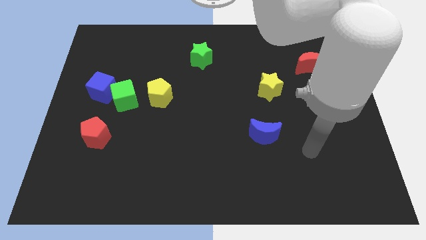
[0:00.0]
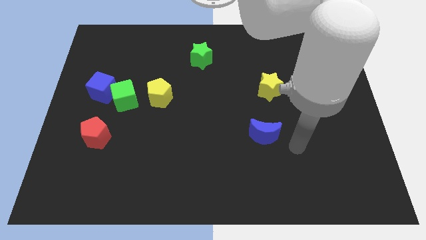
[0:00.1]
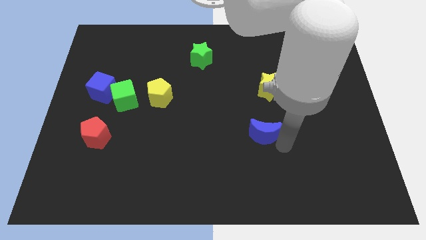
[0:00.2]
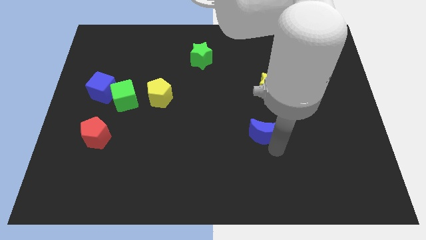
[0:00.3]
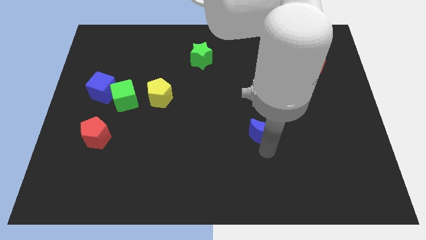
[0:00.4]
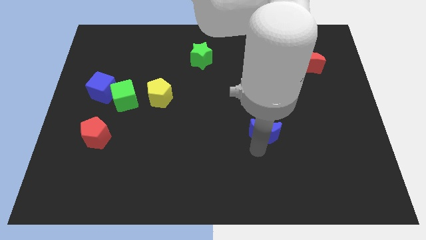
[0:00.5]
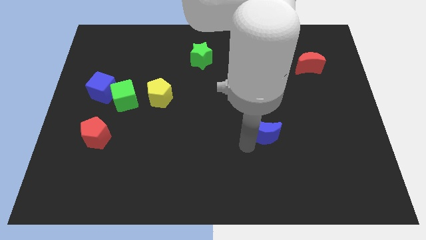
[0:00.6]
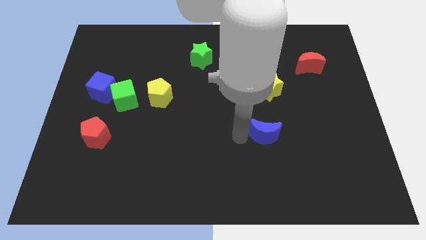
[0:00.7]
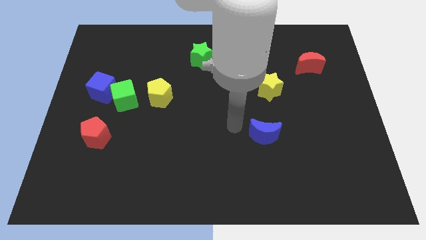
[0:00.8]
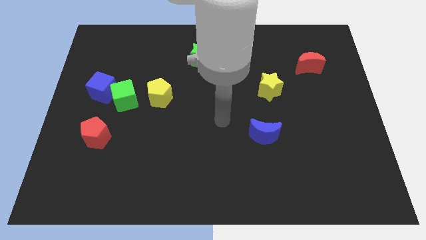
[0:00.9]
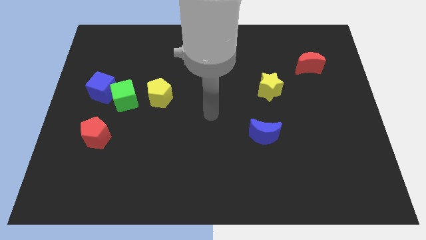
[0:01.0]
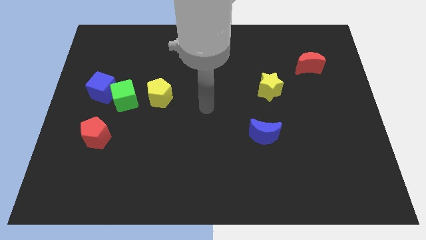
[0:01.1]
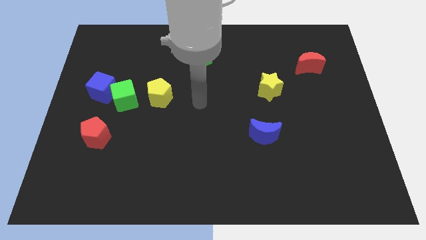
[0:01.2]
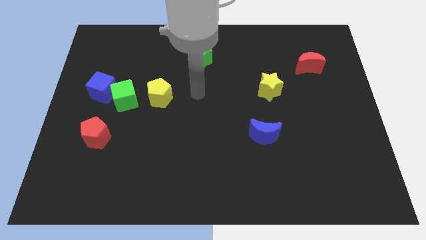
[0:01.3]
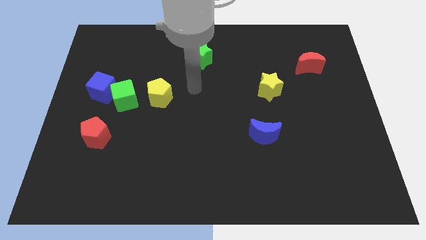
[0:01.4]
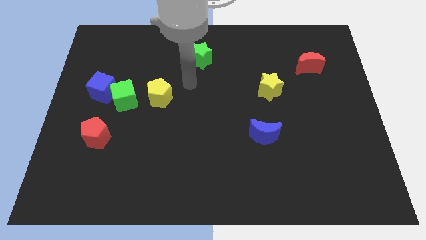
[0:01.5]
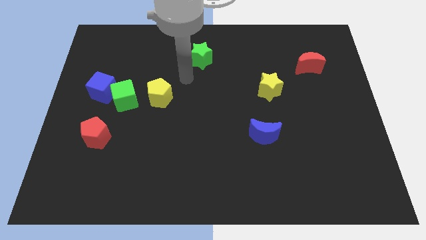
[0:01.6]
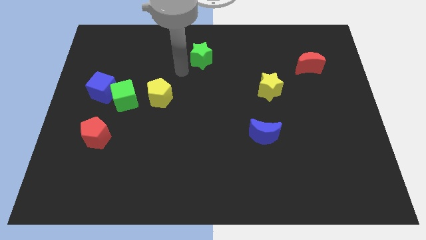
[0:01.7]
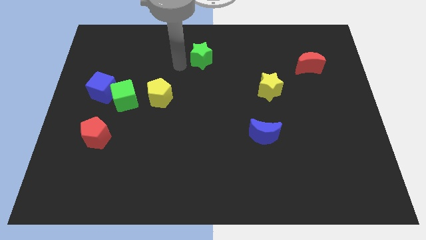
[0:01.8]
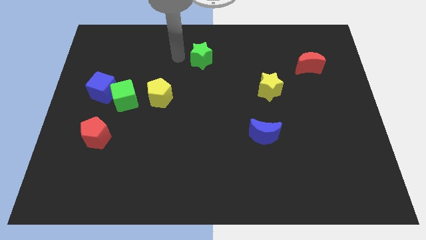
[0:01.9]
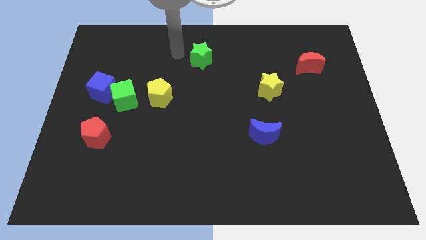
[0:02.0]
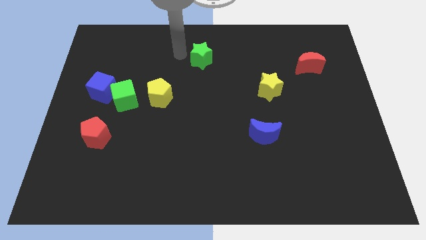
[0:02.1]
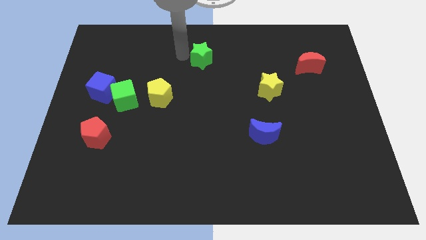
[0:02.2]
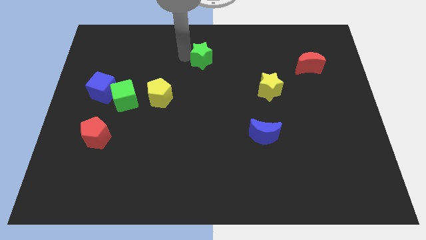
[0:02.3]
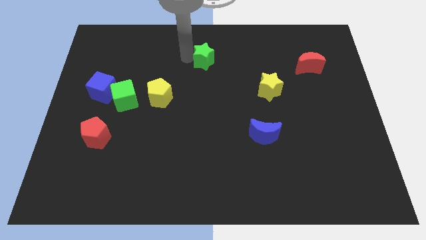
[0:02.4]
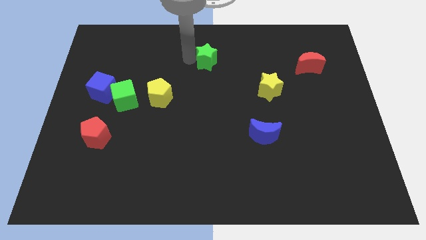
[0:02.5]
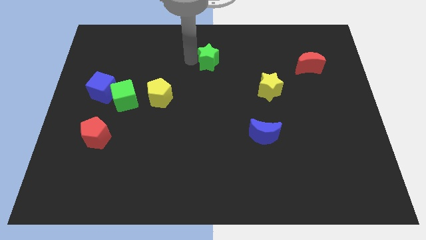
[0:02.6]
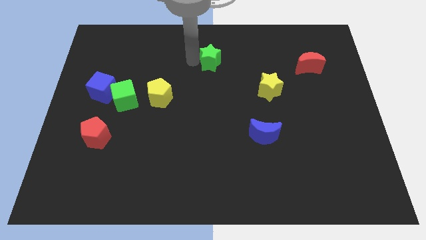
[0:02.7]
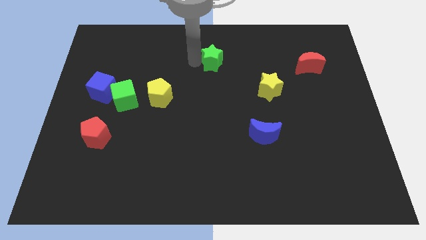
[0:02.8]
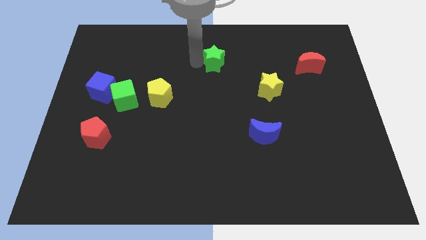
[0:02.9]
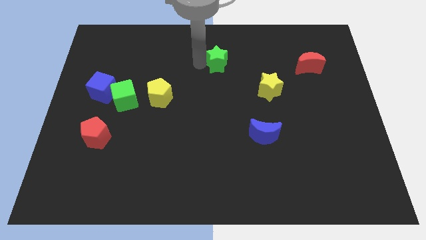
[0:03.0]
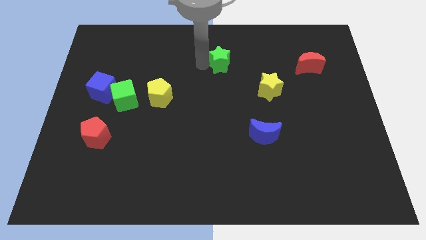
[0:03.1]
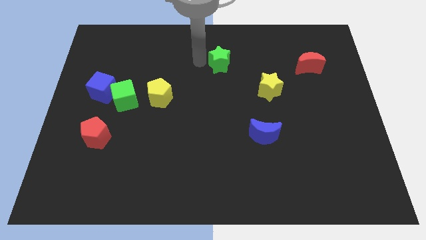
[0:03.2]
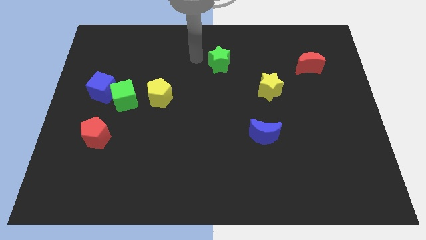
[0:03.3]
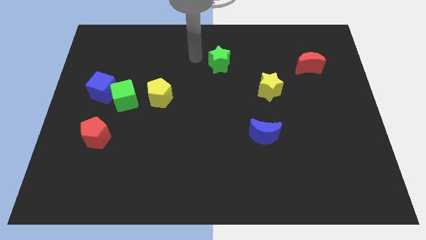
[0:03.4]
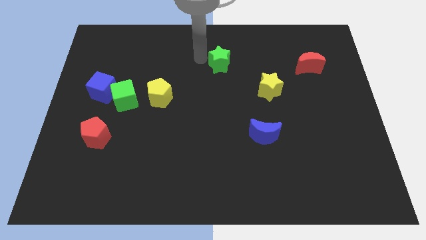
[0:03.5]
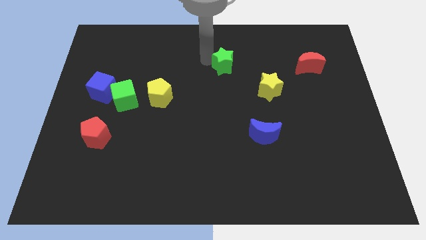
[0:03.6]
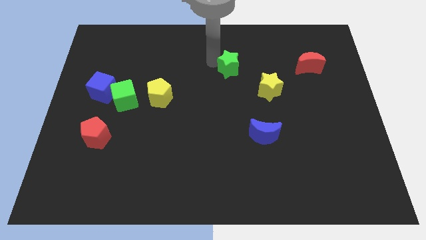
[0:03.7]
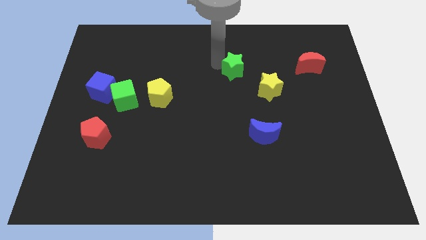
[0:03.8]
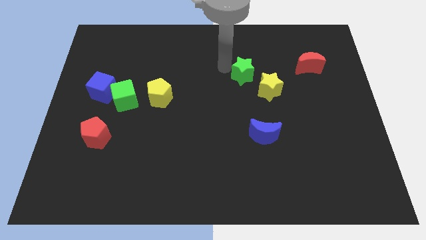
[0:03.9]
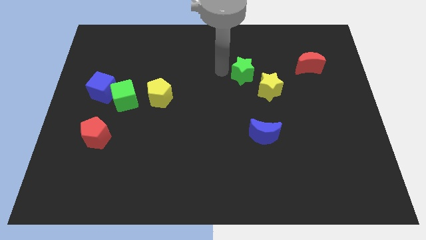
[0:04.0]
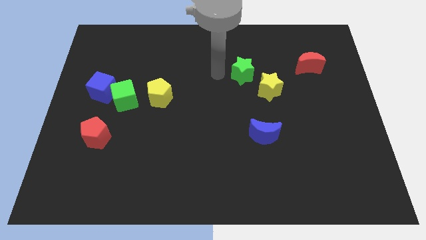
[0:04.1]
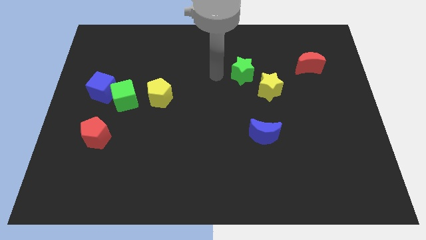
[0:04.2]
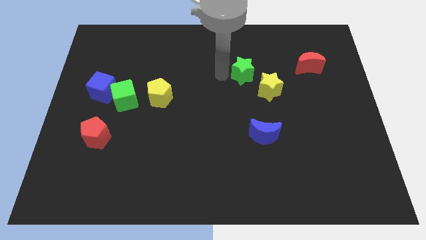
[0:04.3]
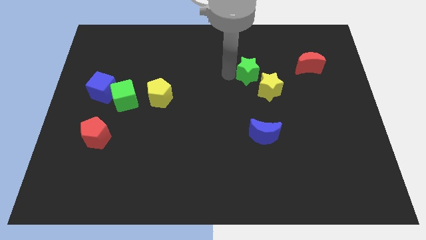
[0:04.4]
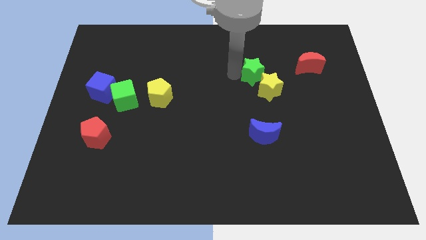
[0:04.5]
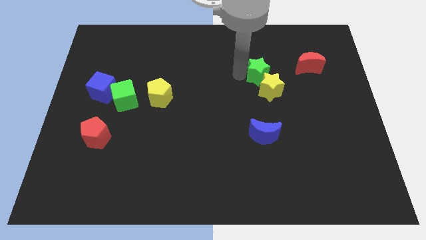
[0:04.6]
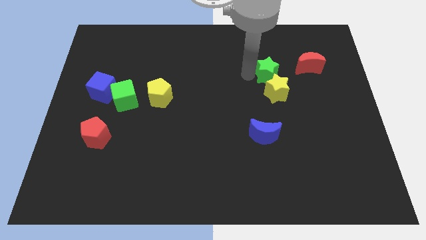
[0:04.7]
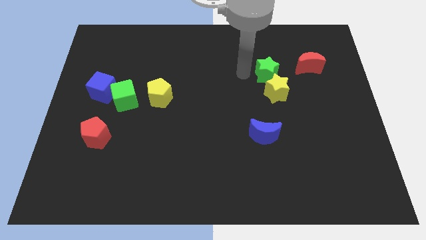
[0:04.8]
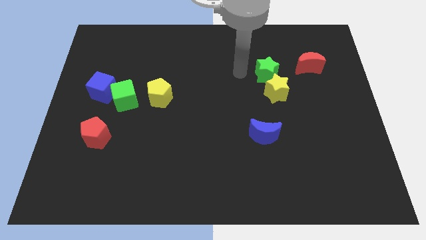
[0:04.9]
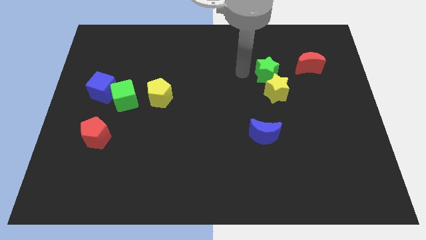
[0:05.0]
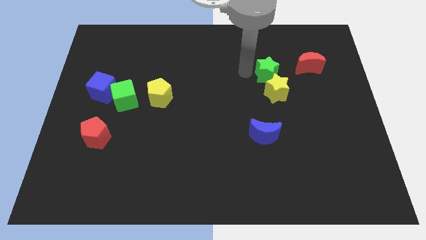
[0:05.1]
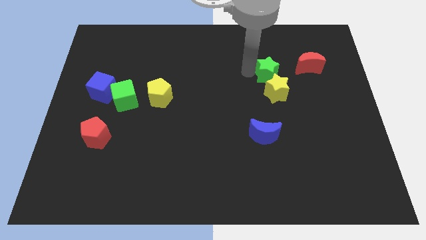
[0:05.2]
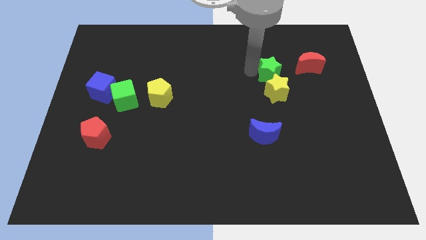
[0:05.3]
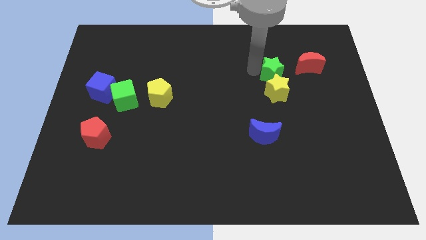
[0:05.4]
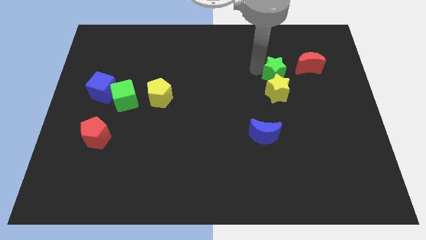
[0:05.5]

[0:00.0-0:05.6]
push the green star diagonally up and to the right of the yellow star

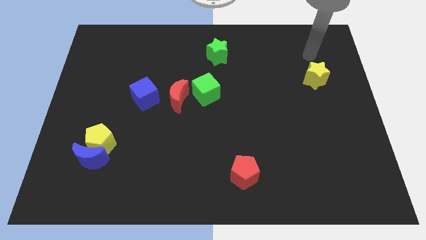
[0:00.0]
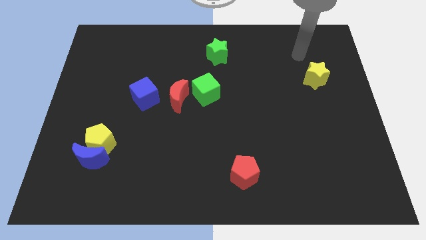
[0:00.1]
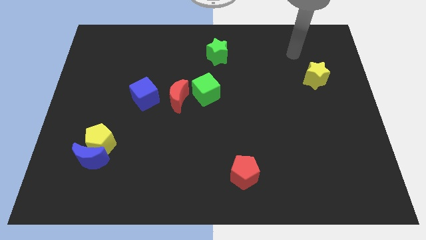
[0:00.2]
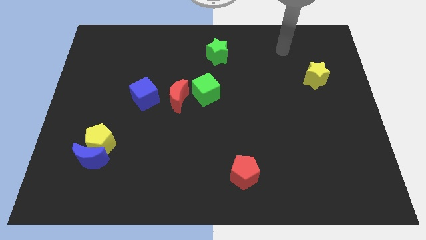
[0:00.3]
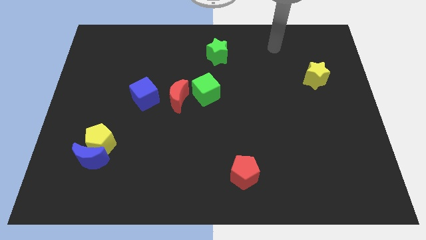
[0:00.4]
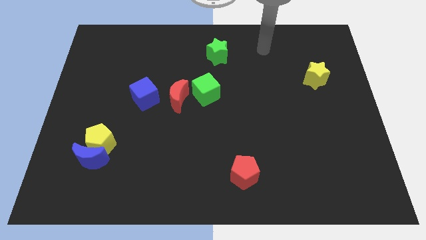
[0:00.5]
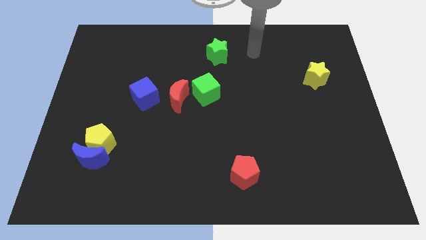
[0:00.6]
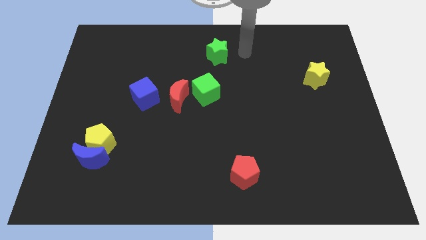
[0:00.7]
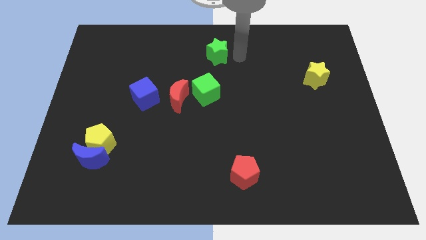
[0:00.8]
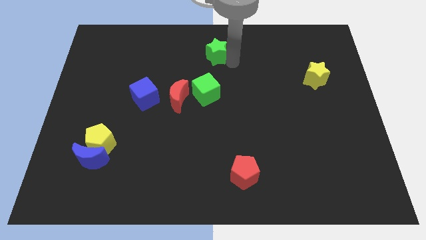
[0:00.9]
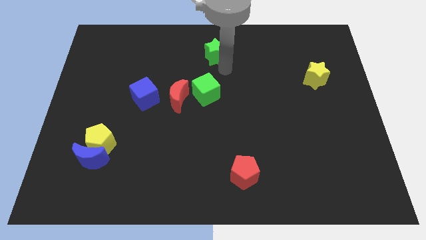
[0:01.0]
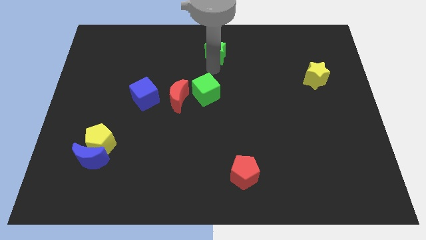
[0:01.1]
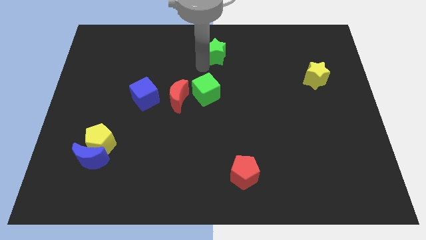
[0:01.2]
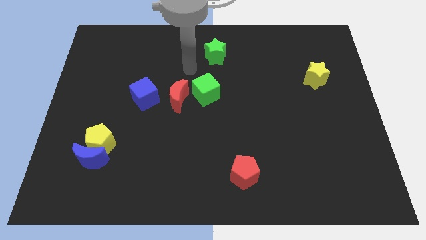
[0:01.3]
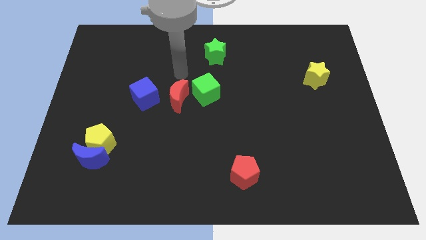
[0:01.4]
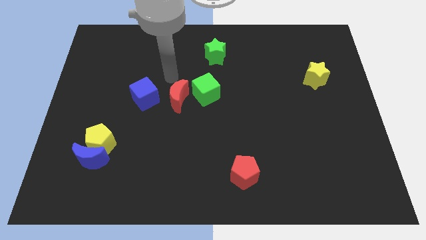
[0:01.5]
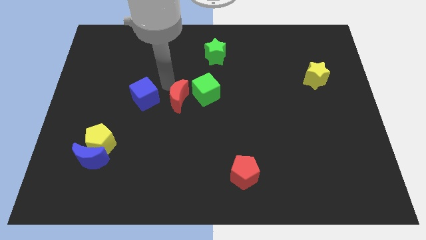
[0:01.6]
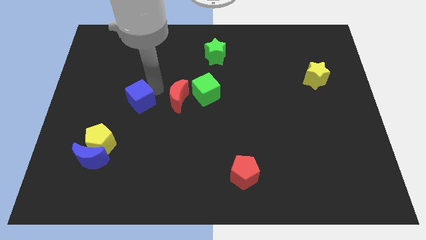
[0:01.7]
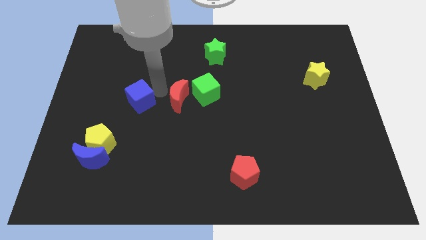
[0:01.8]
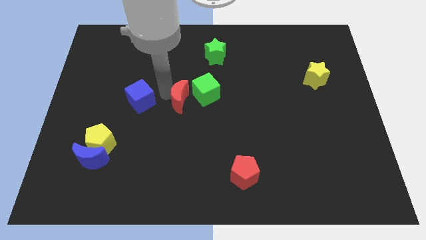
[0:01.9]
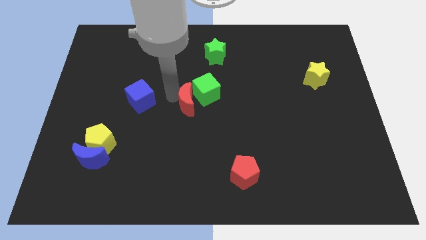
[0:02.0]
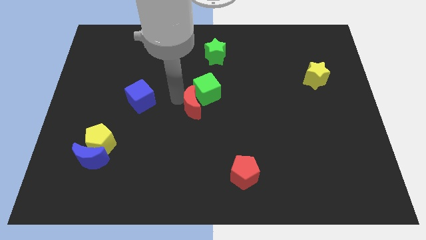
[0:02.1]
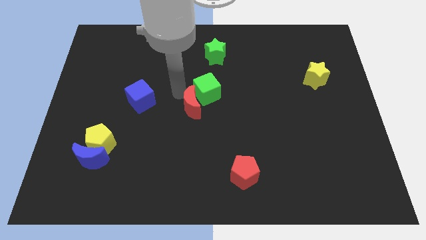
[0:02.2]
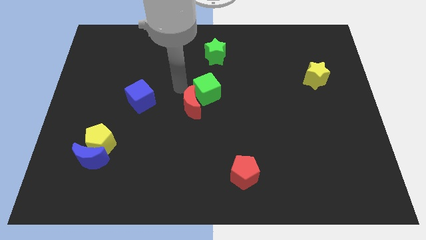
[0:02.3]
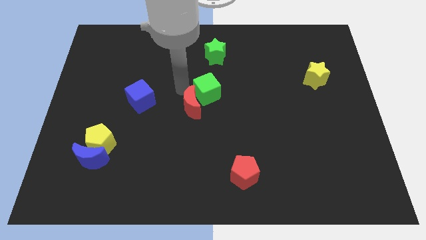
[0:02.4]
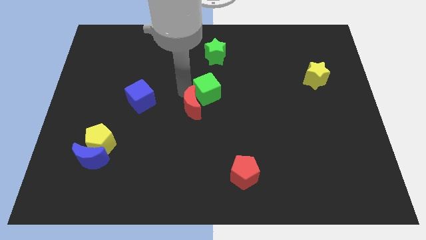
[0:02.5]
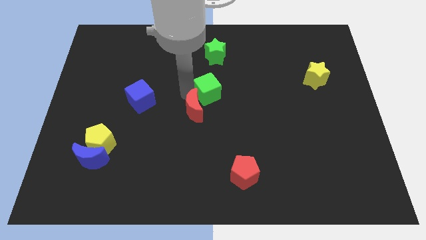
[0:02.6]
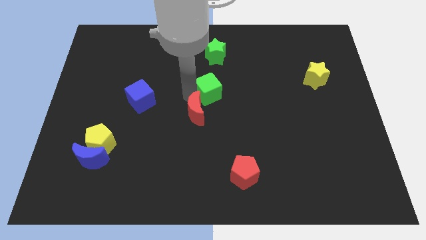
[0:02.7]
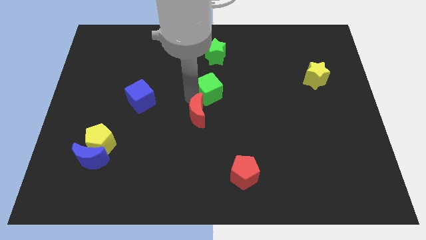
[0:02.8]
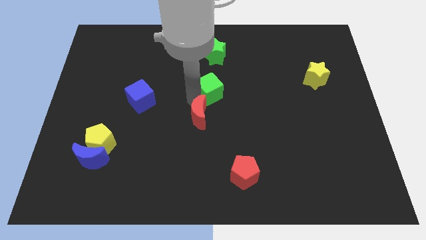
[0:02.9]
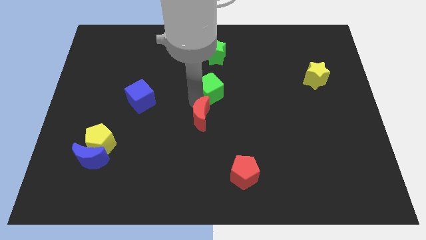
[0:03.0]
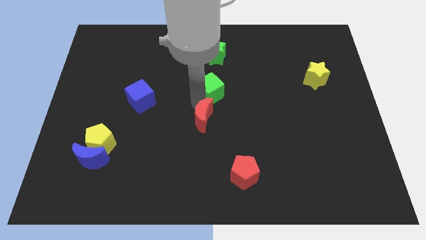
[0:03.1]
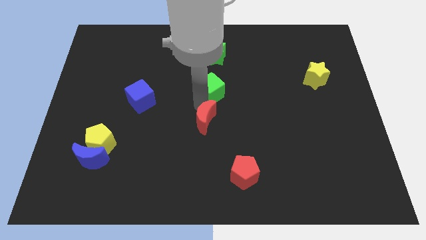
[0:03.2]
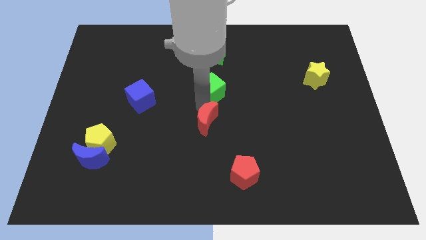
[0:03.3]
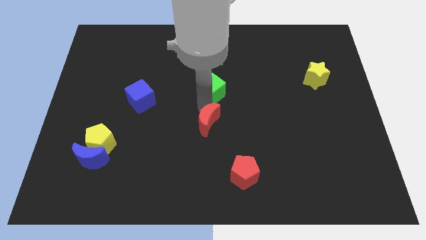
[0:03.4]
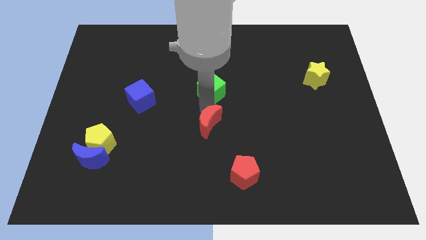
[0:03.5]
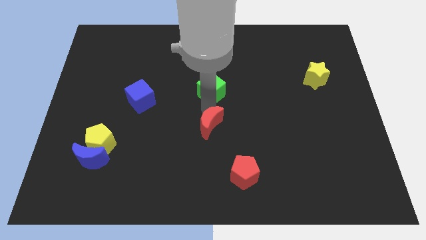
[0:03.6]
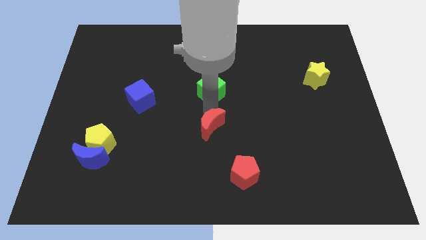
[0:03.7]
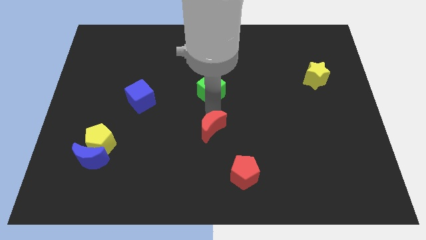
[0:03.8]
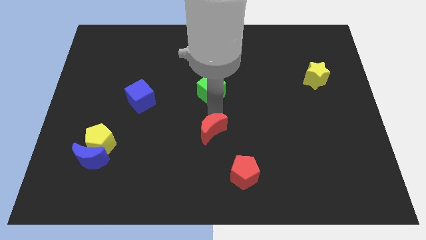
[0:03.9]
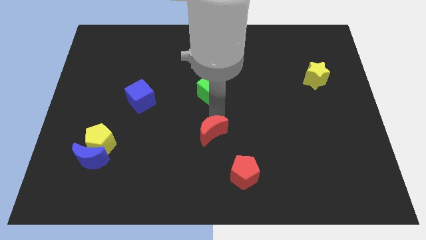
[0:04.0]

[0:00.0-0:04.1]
put the red moon diagonally up and to the left of the red pentagon
